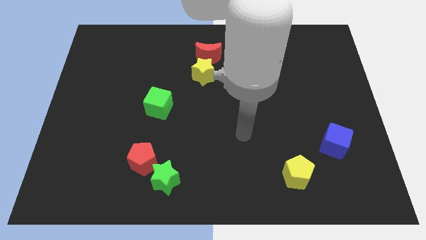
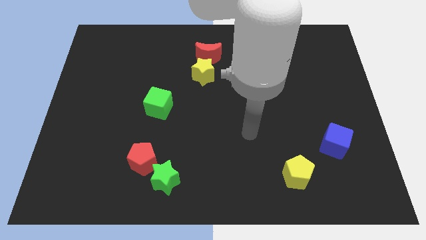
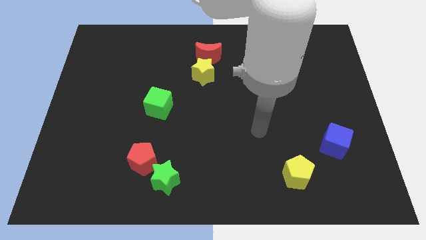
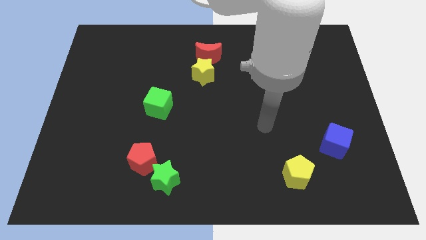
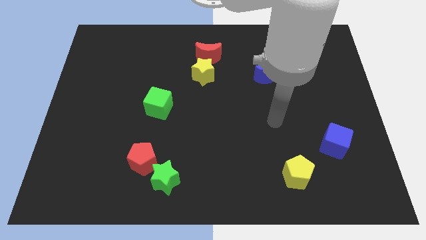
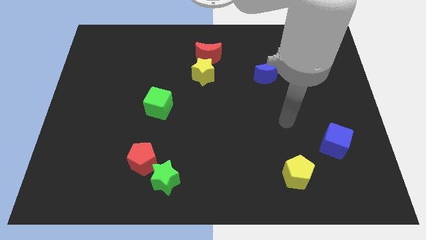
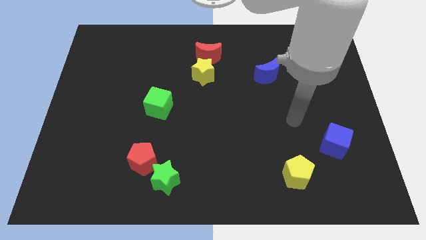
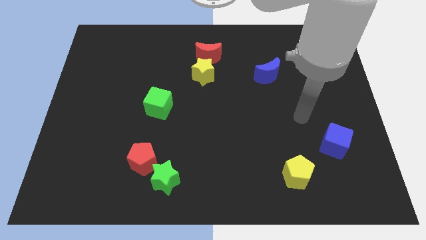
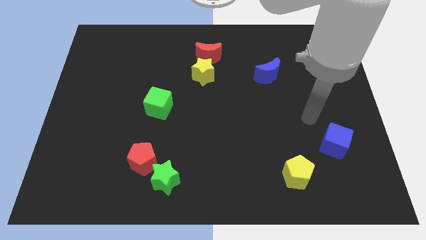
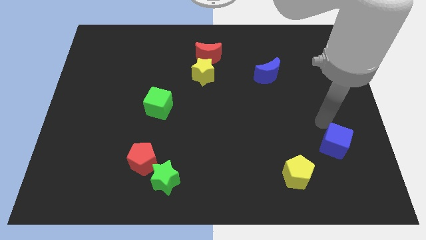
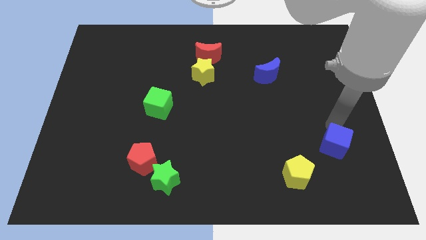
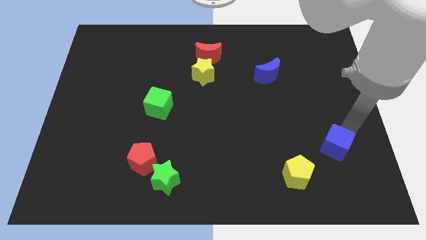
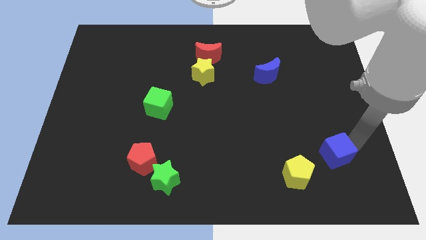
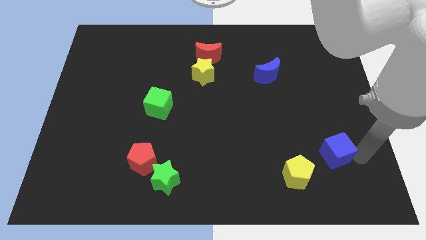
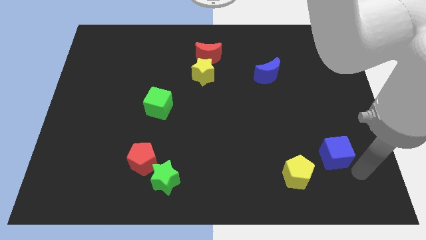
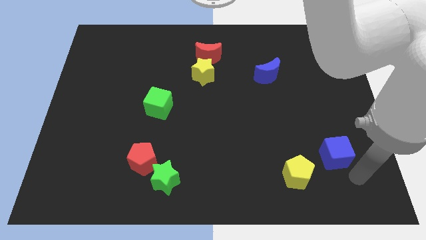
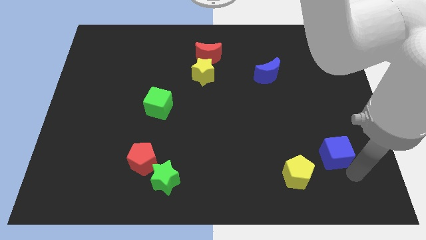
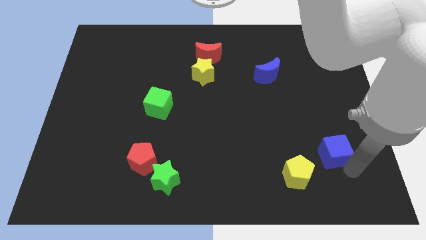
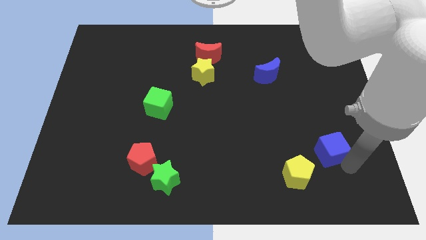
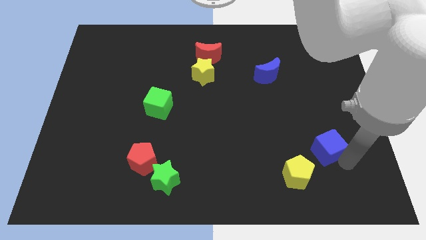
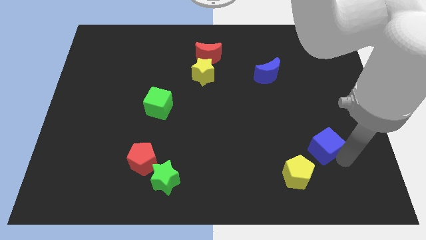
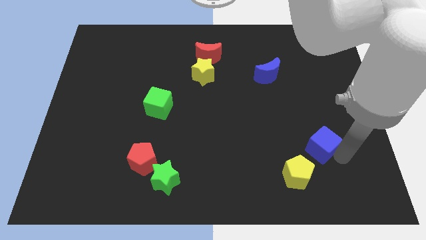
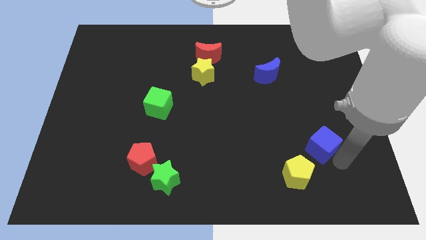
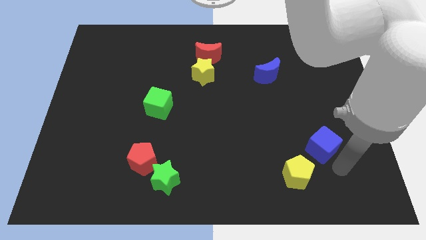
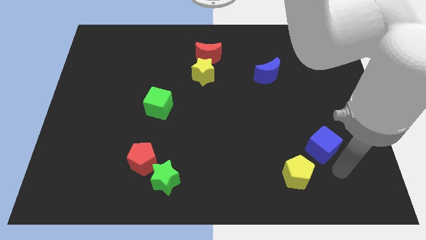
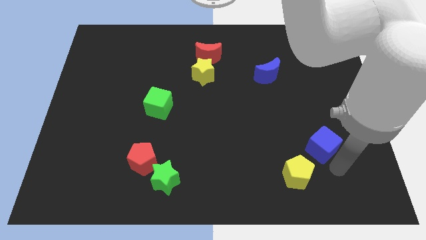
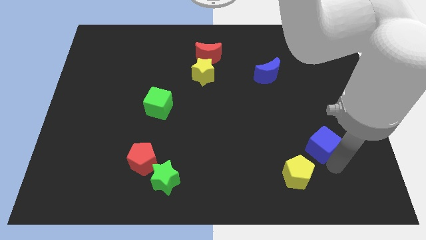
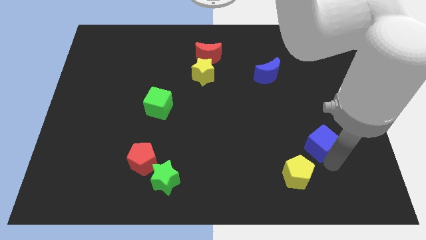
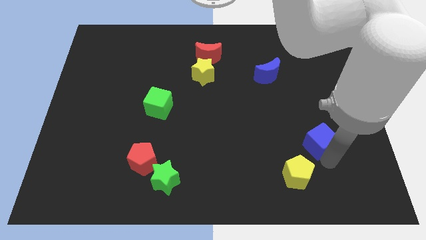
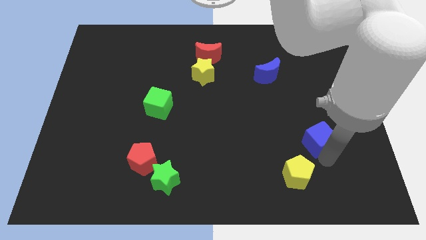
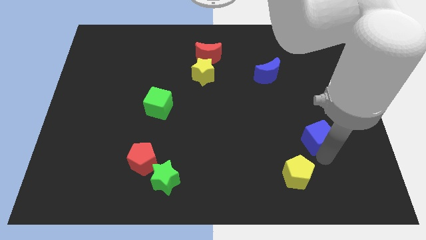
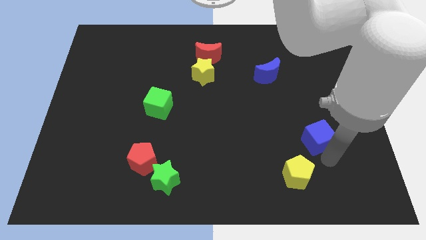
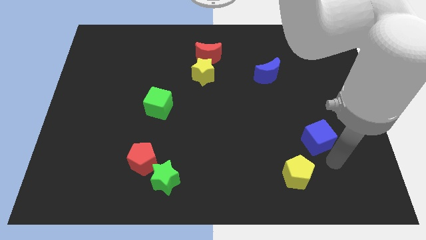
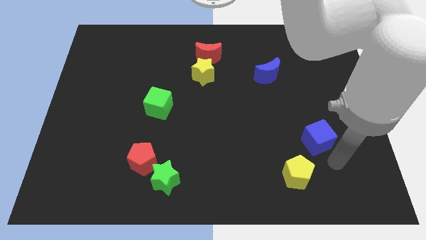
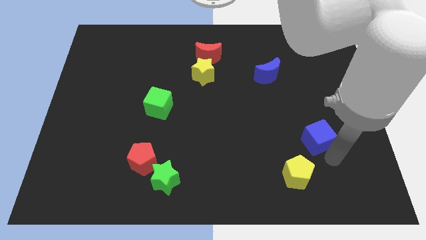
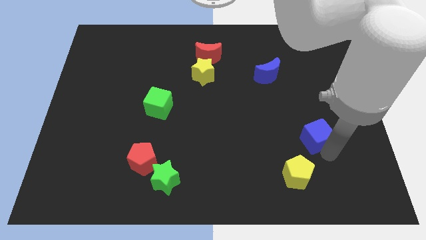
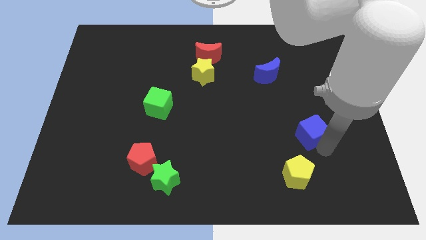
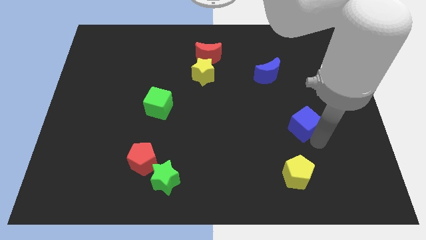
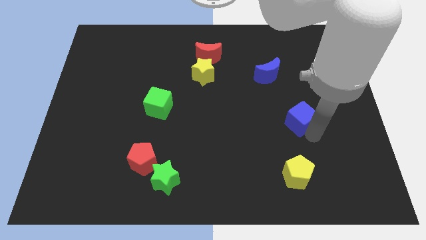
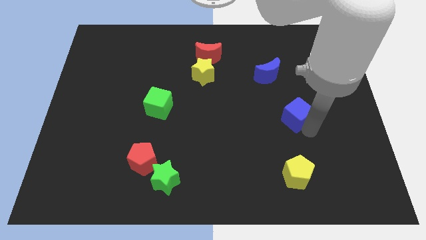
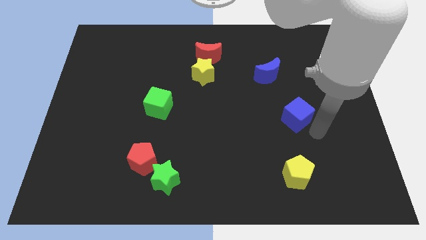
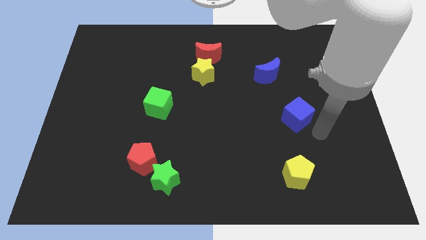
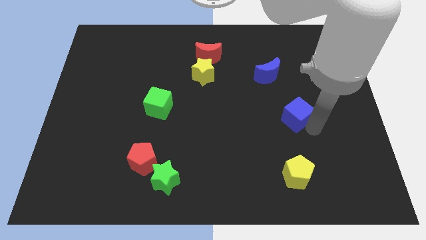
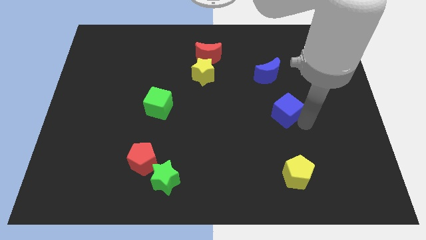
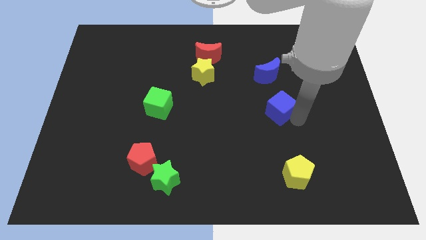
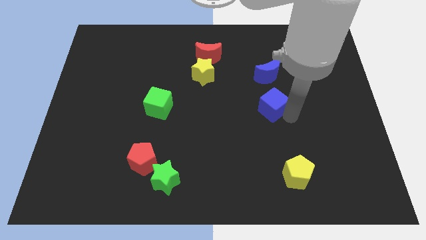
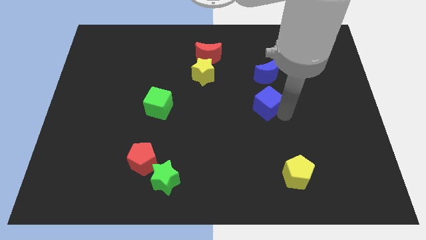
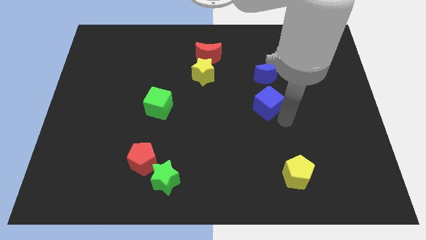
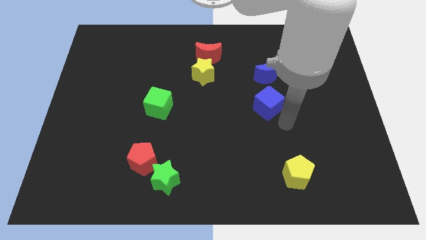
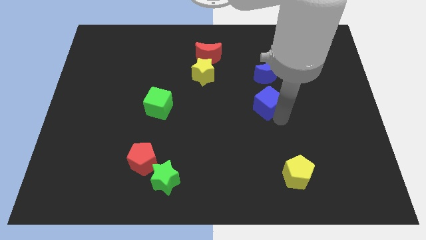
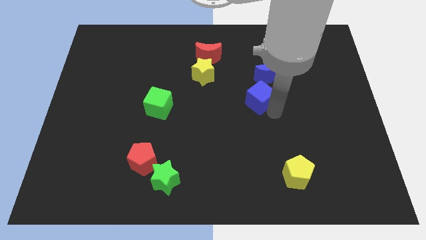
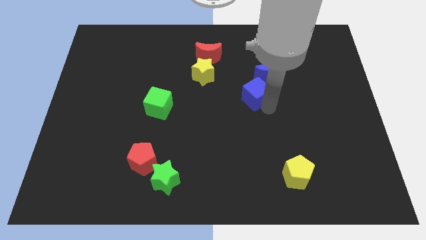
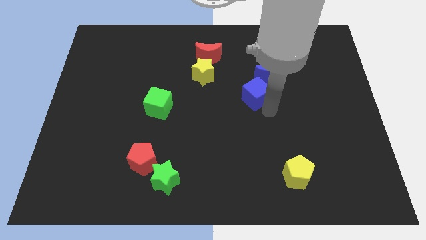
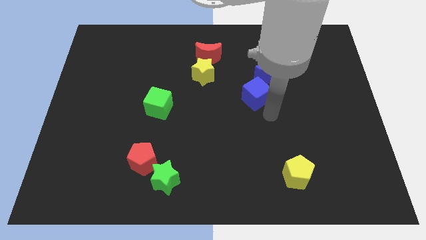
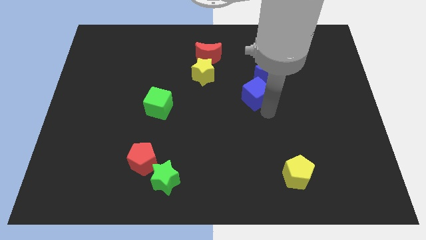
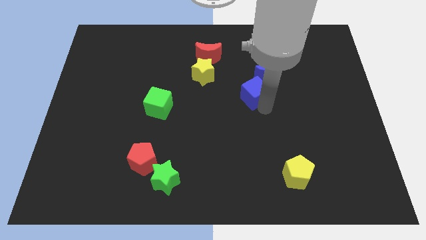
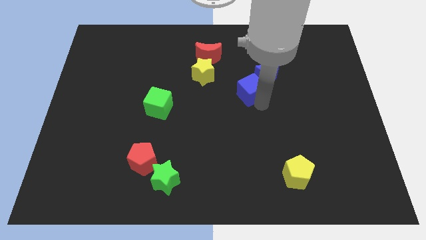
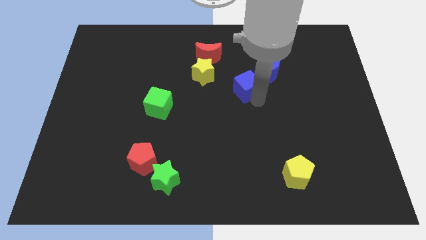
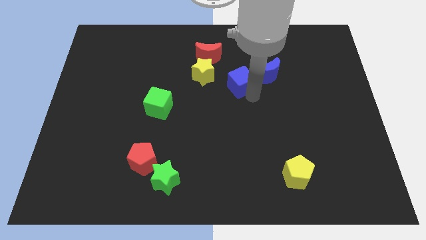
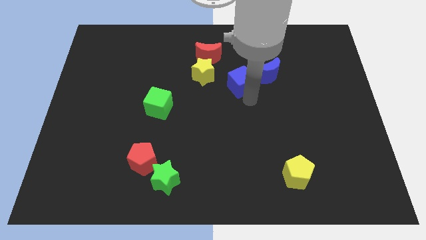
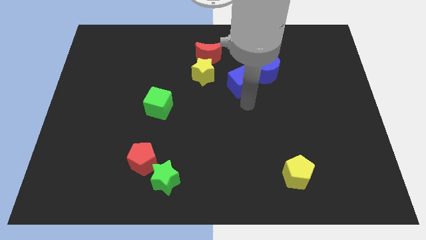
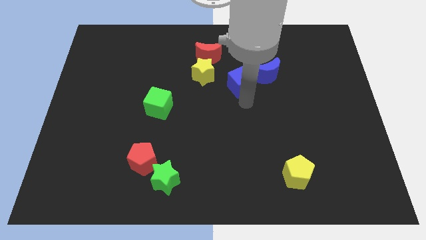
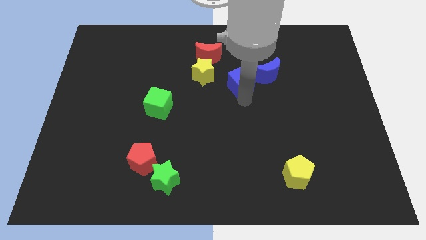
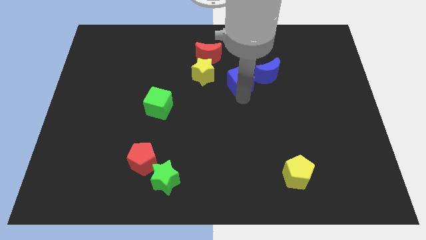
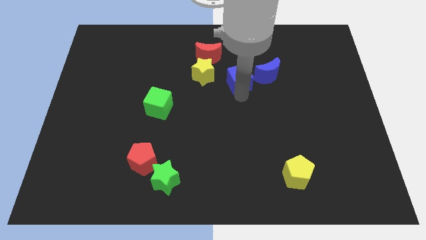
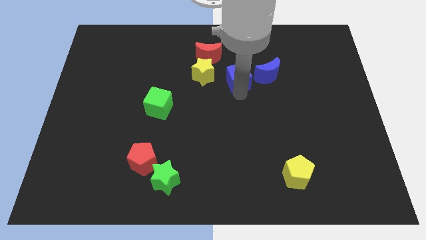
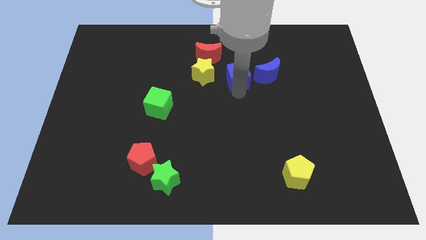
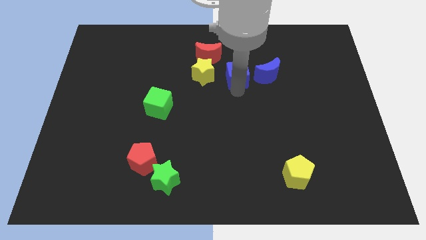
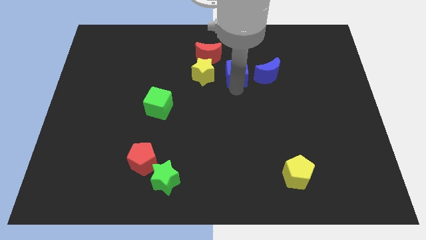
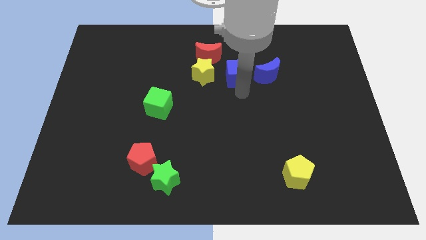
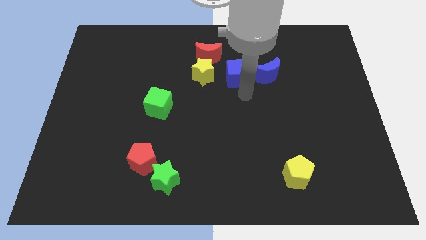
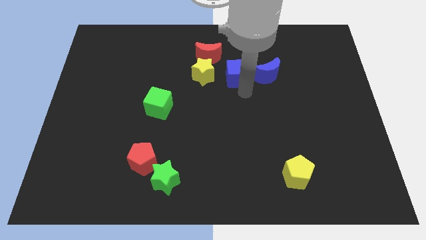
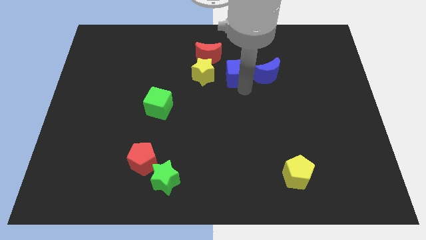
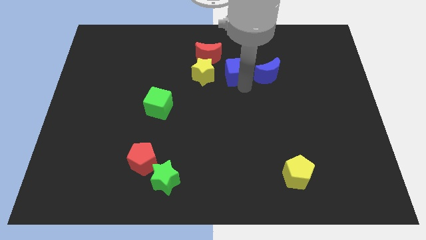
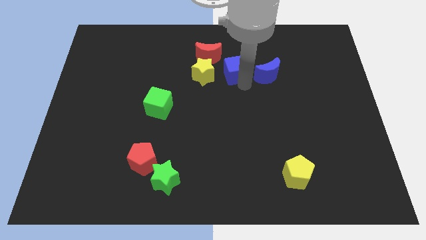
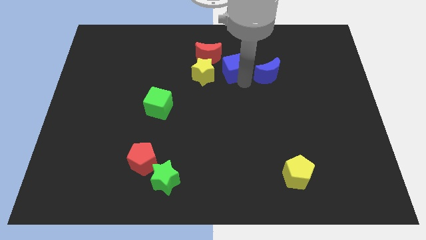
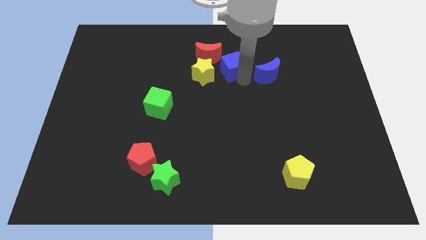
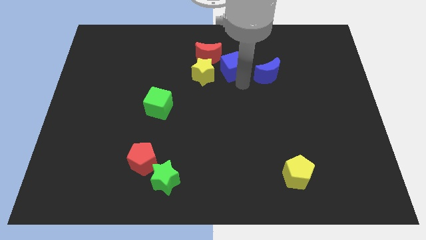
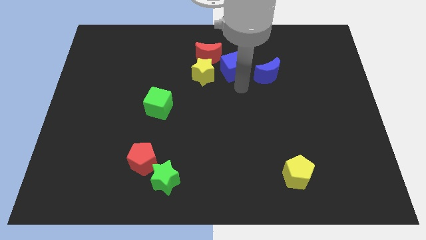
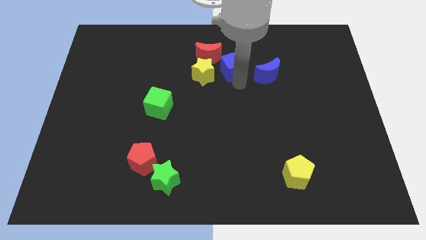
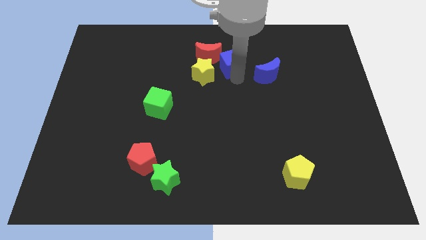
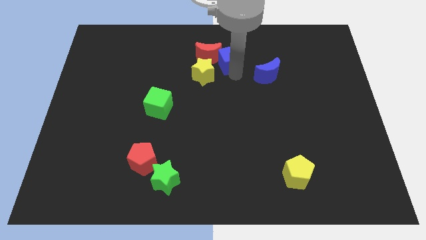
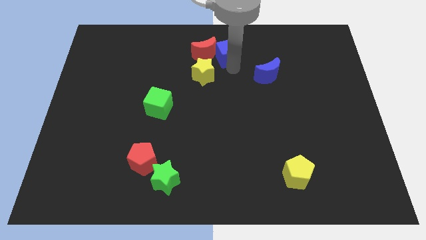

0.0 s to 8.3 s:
move the blue cube to the top
